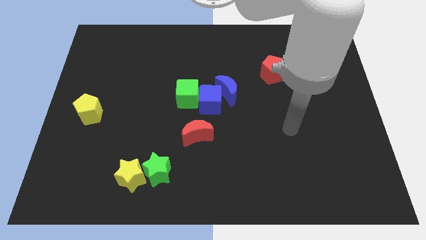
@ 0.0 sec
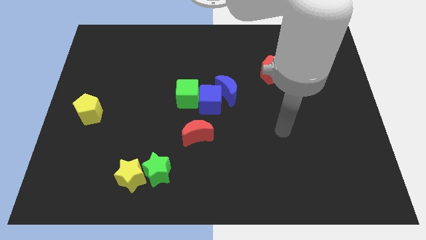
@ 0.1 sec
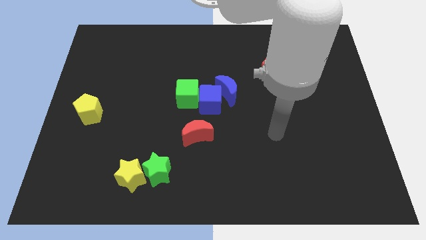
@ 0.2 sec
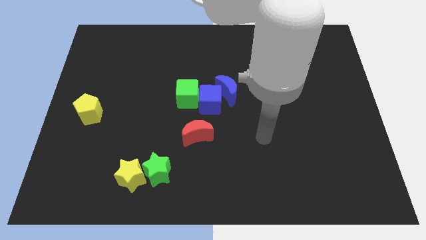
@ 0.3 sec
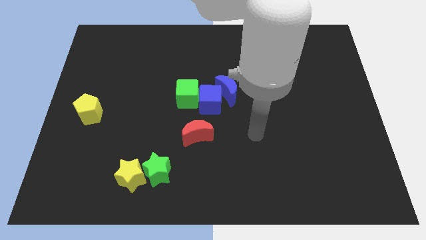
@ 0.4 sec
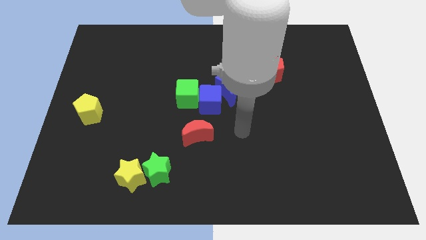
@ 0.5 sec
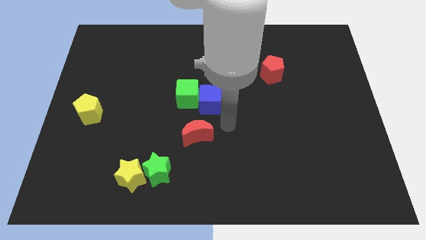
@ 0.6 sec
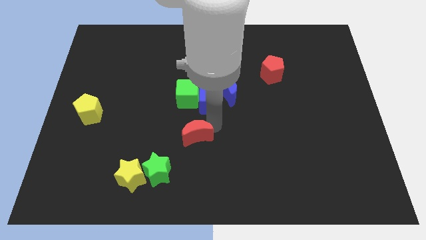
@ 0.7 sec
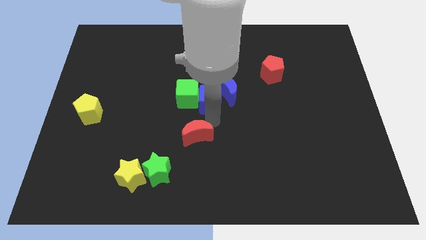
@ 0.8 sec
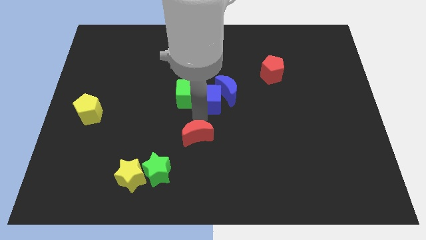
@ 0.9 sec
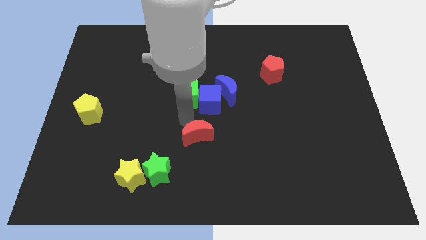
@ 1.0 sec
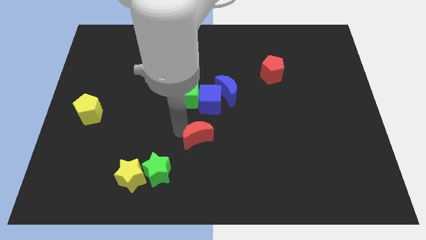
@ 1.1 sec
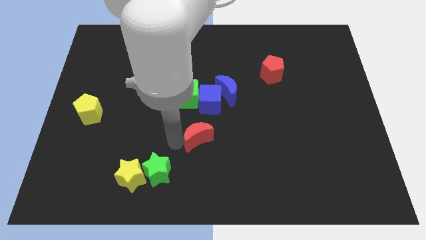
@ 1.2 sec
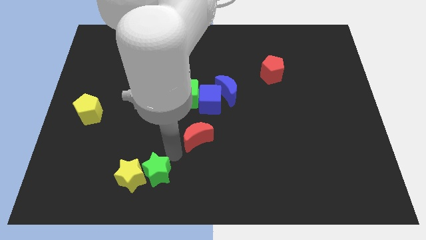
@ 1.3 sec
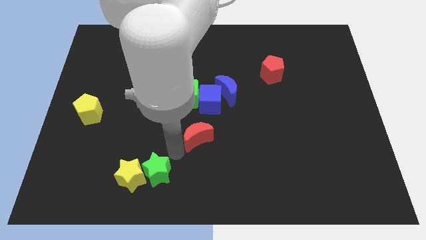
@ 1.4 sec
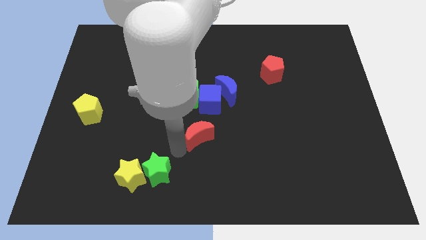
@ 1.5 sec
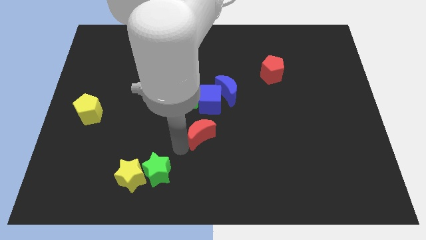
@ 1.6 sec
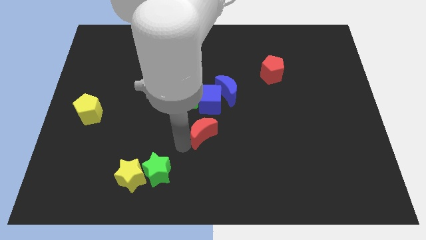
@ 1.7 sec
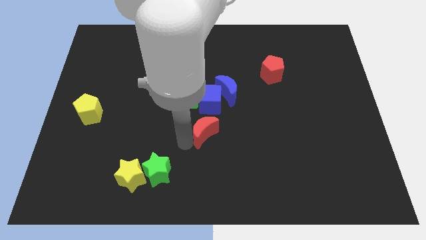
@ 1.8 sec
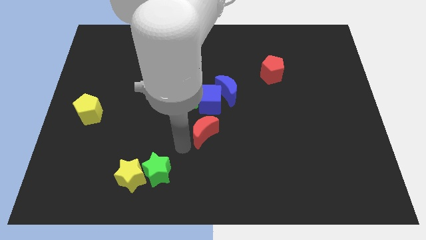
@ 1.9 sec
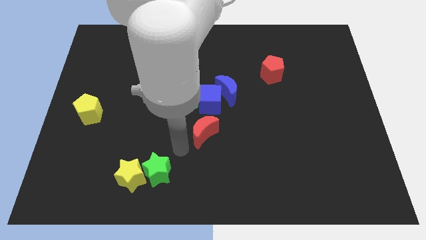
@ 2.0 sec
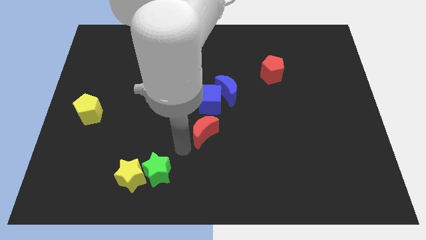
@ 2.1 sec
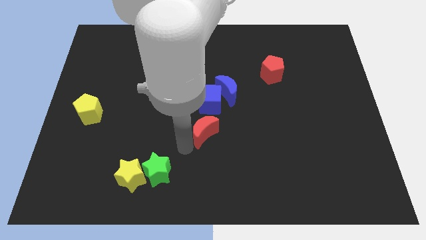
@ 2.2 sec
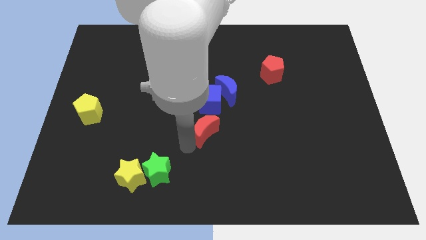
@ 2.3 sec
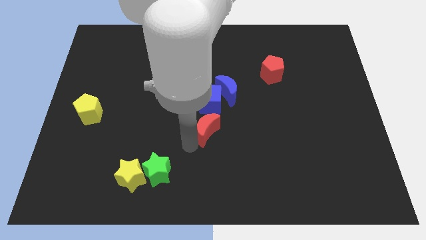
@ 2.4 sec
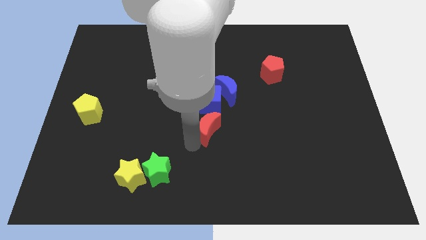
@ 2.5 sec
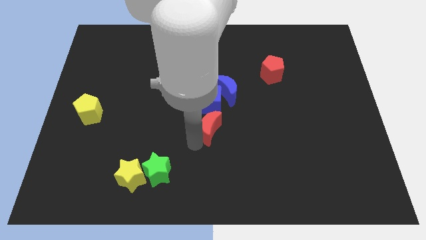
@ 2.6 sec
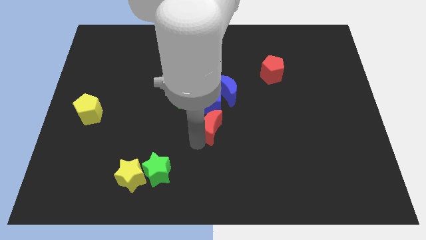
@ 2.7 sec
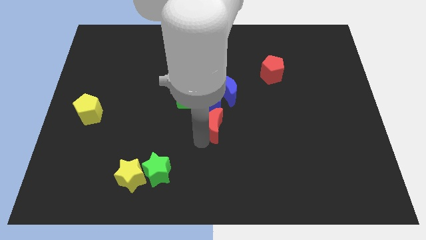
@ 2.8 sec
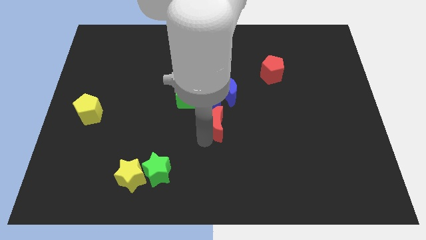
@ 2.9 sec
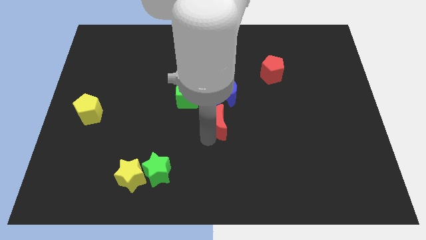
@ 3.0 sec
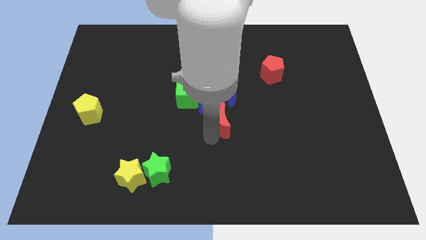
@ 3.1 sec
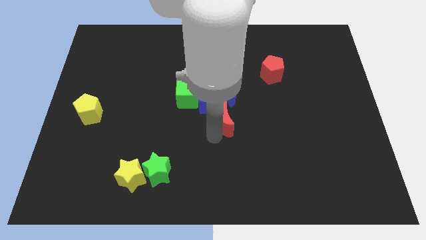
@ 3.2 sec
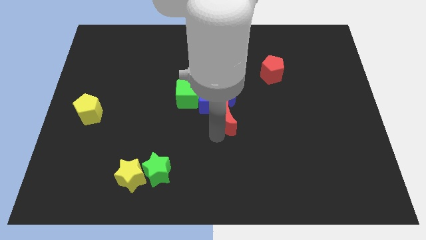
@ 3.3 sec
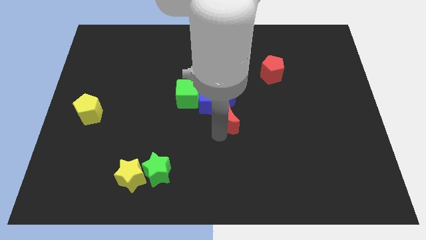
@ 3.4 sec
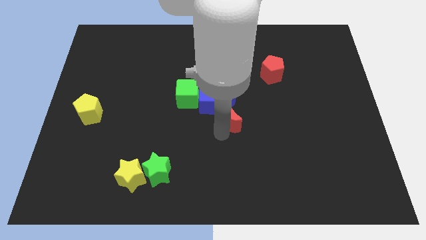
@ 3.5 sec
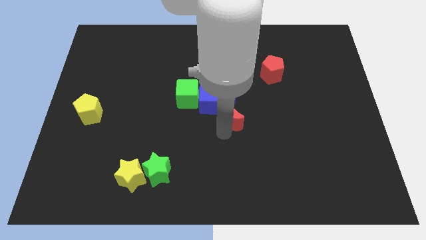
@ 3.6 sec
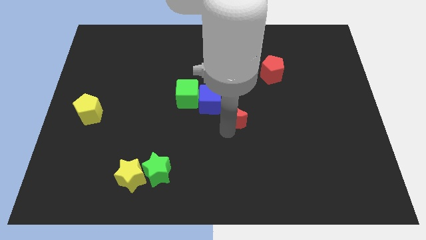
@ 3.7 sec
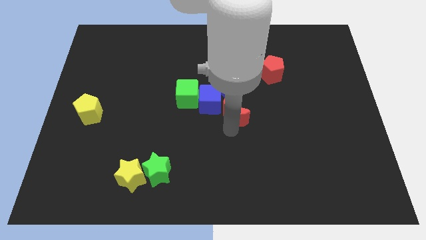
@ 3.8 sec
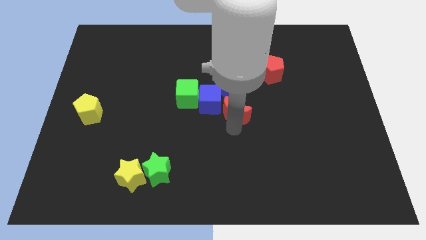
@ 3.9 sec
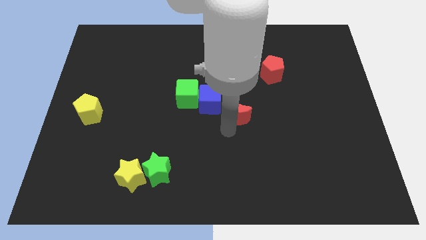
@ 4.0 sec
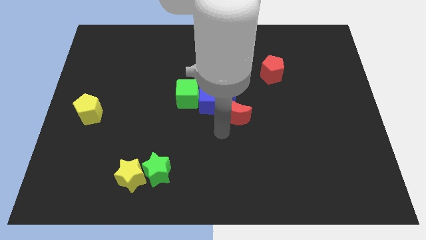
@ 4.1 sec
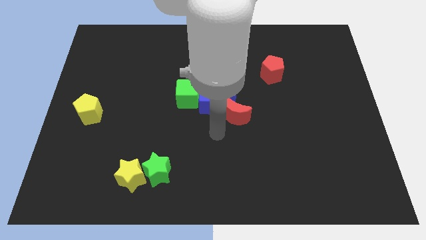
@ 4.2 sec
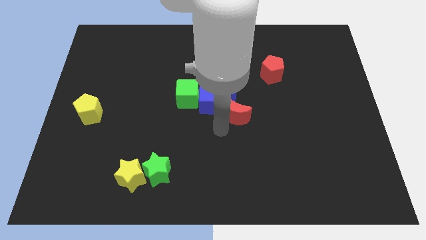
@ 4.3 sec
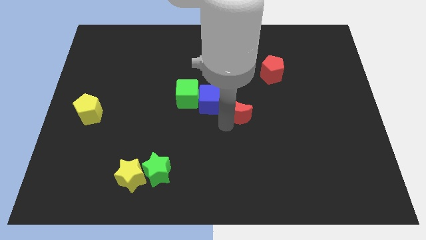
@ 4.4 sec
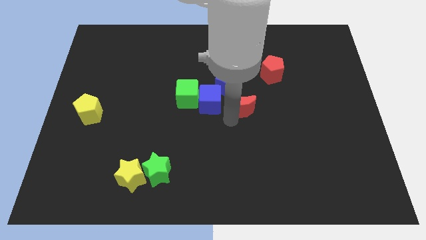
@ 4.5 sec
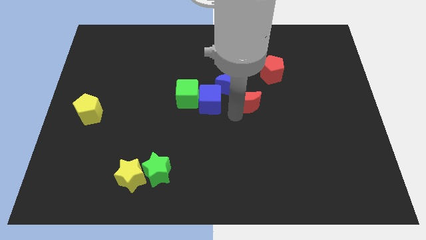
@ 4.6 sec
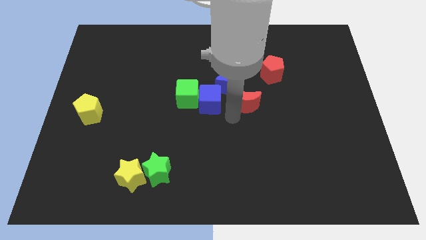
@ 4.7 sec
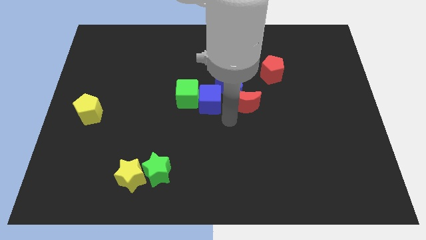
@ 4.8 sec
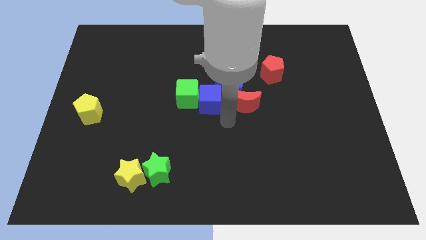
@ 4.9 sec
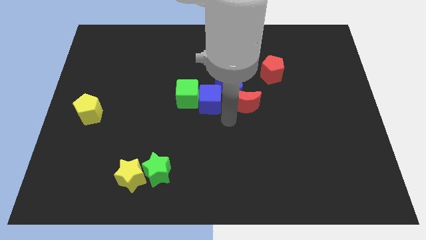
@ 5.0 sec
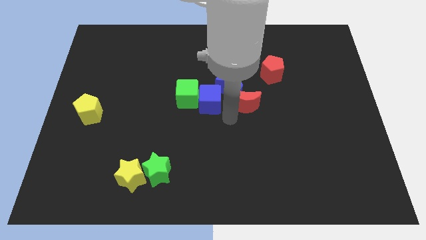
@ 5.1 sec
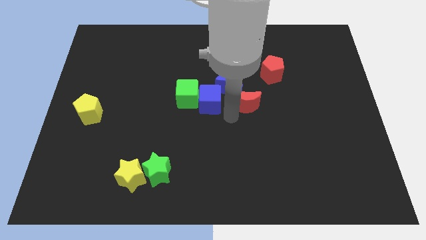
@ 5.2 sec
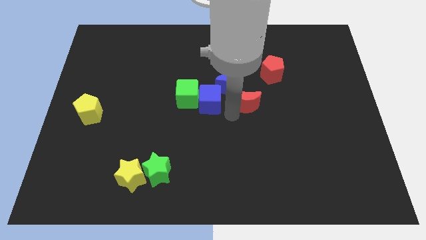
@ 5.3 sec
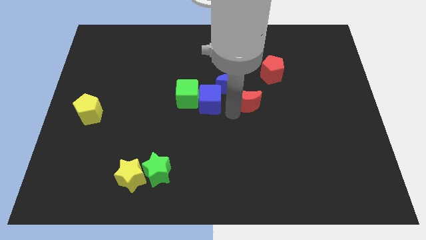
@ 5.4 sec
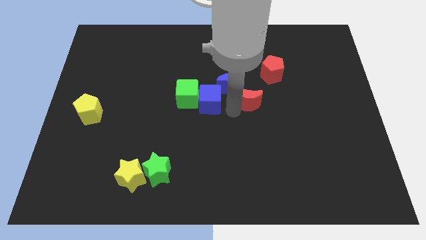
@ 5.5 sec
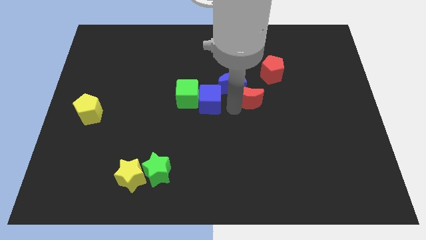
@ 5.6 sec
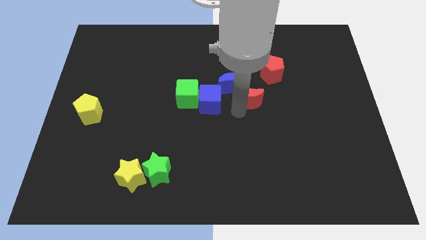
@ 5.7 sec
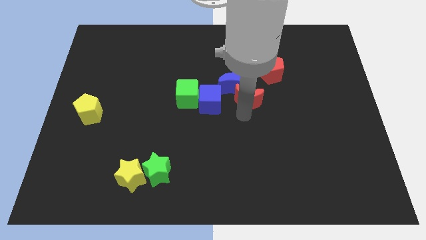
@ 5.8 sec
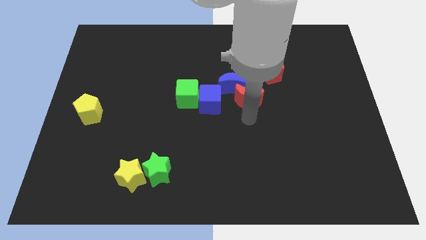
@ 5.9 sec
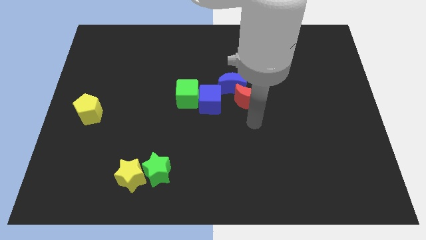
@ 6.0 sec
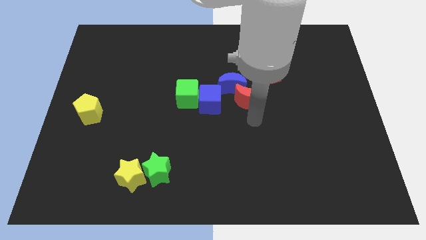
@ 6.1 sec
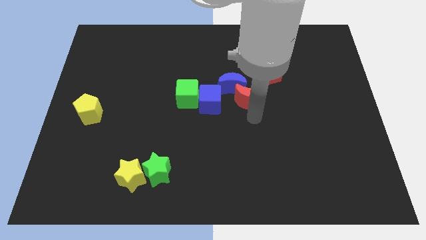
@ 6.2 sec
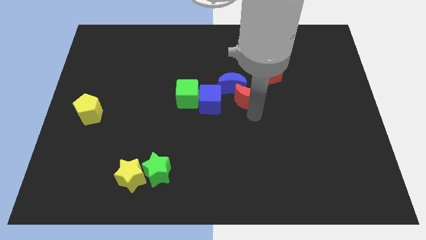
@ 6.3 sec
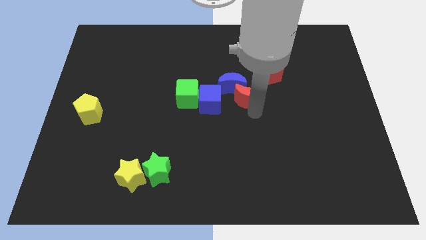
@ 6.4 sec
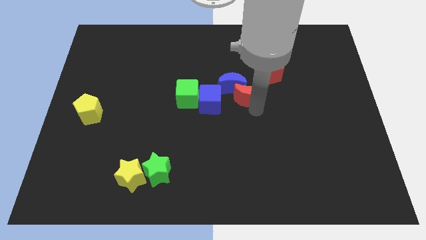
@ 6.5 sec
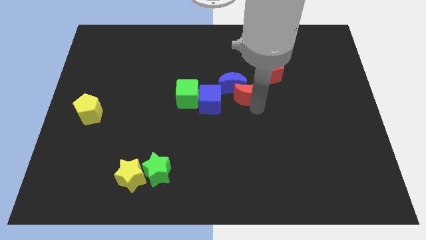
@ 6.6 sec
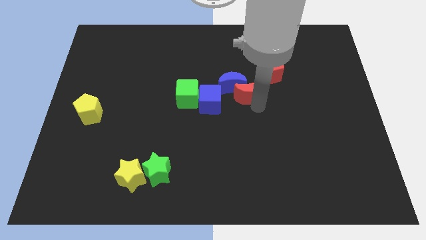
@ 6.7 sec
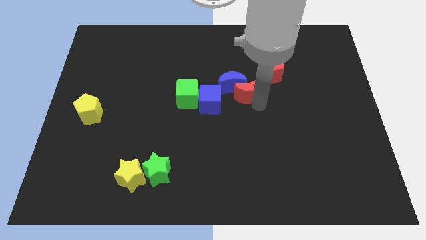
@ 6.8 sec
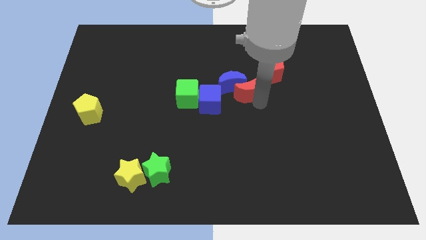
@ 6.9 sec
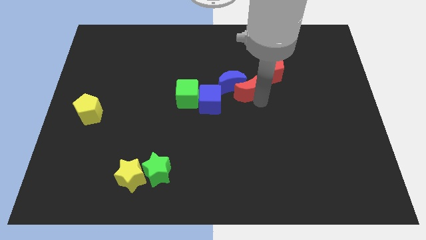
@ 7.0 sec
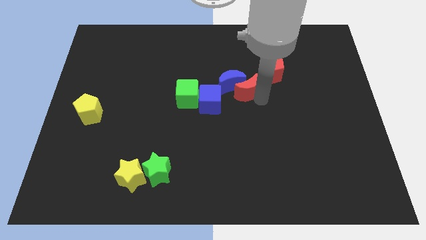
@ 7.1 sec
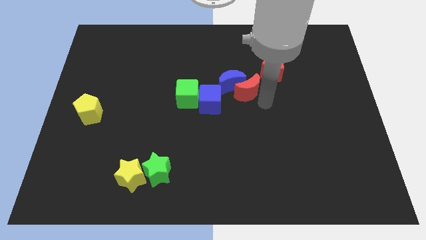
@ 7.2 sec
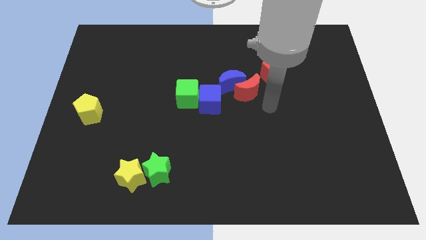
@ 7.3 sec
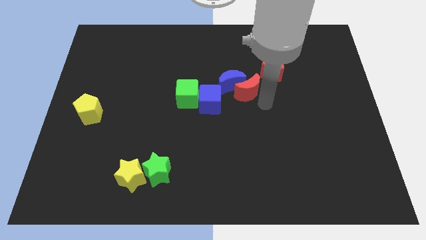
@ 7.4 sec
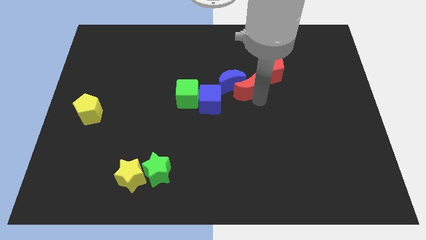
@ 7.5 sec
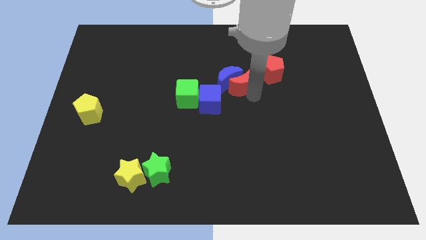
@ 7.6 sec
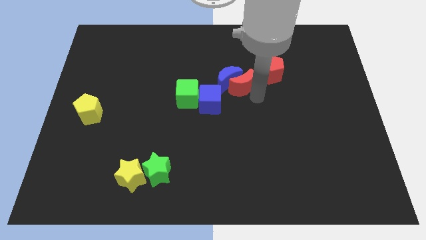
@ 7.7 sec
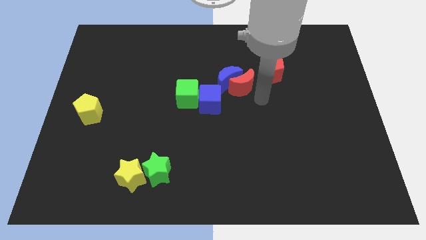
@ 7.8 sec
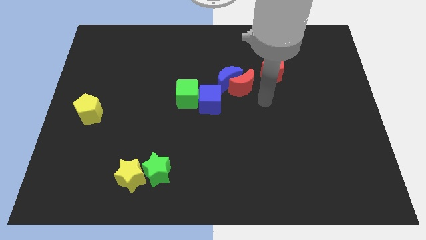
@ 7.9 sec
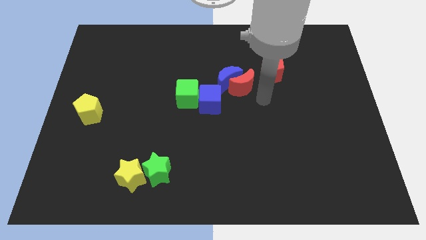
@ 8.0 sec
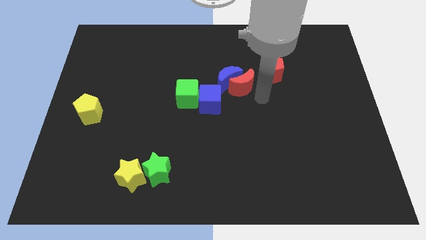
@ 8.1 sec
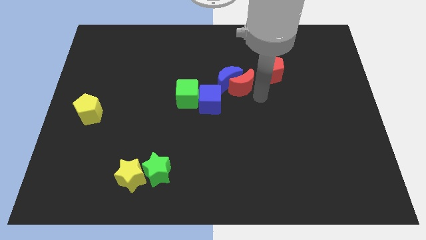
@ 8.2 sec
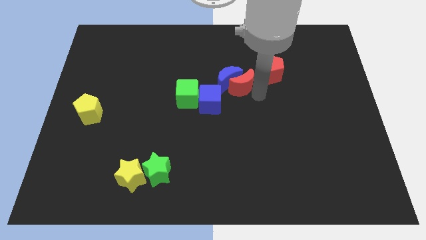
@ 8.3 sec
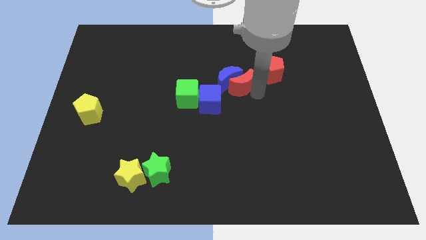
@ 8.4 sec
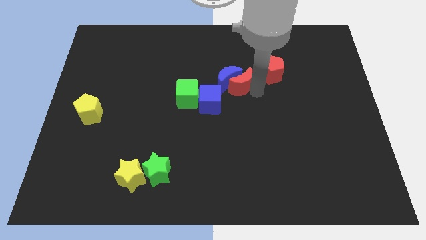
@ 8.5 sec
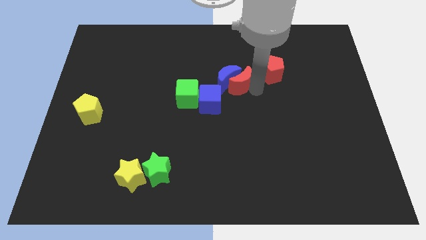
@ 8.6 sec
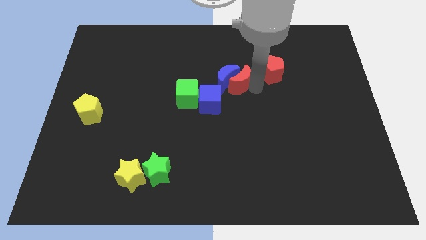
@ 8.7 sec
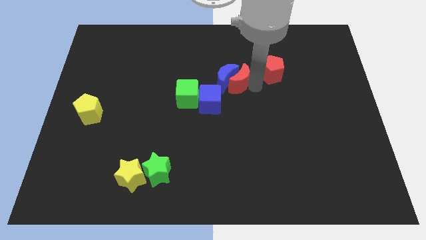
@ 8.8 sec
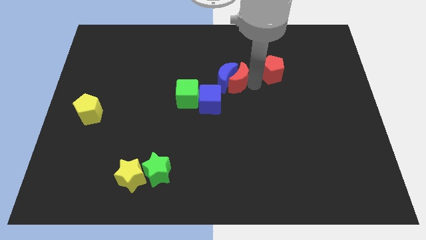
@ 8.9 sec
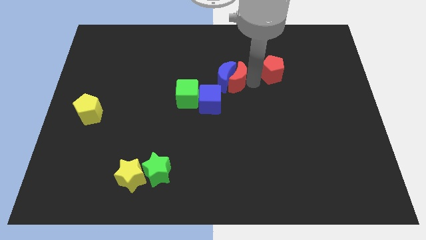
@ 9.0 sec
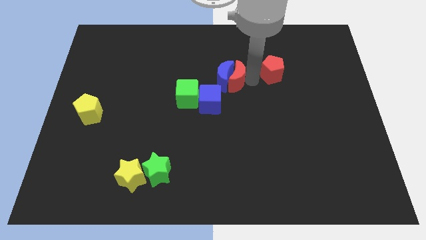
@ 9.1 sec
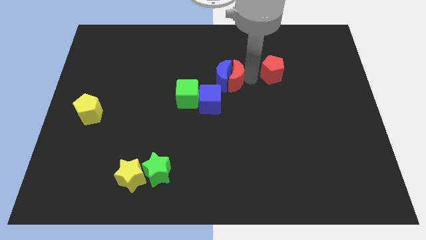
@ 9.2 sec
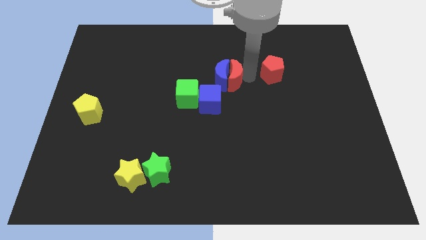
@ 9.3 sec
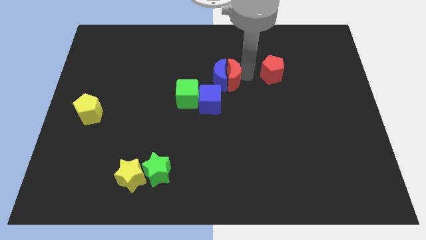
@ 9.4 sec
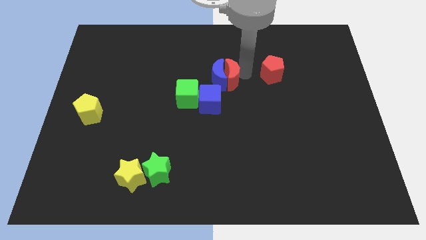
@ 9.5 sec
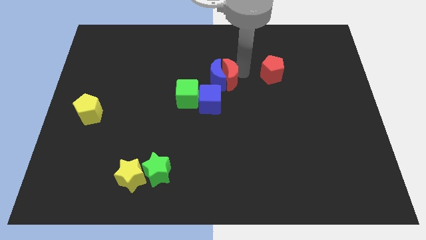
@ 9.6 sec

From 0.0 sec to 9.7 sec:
push the red moon to the top right side of the green cube
